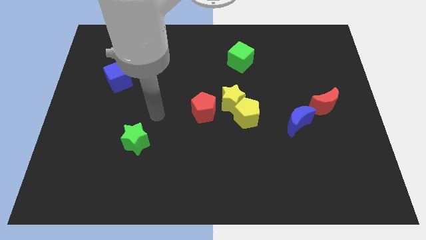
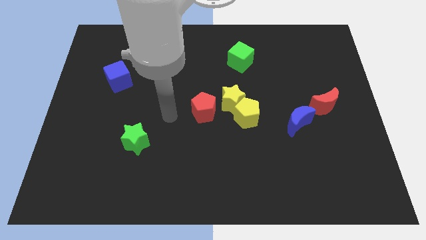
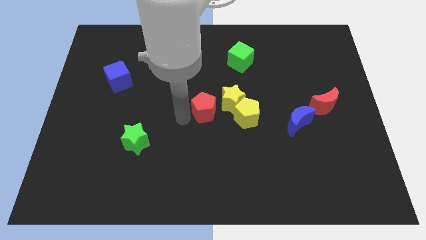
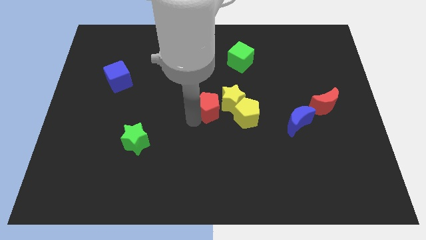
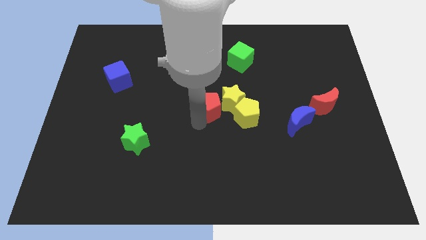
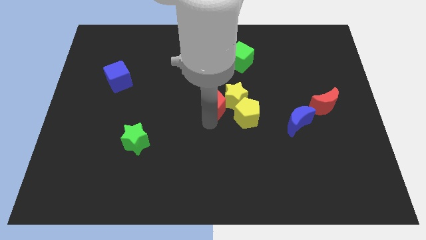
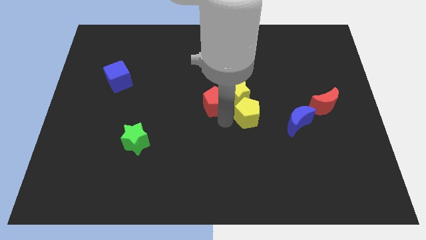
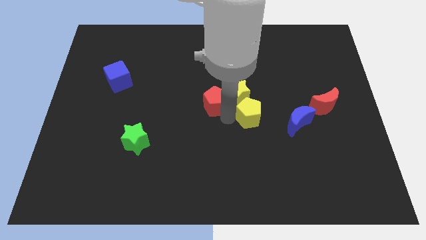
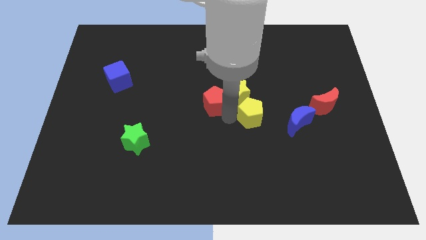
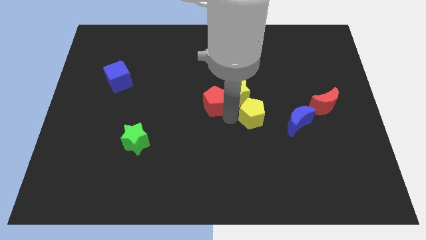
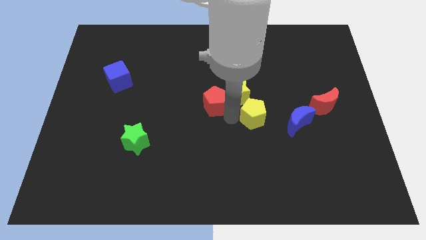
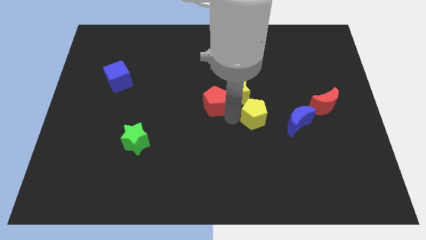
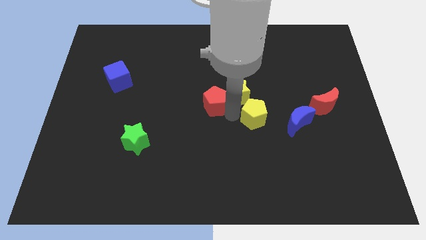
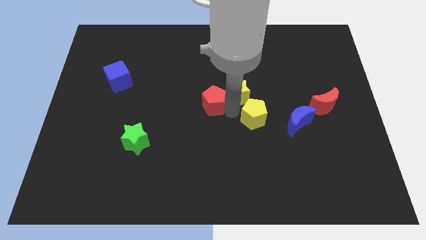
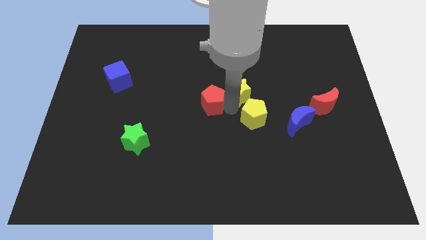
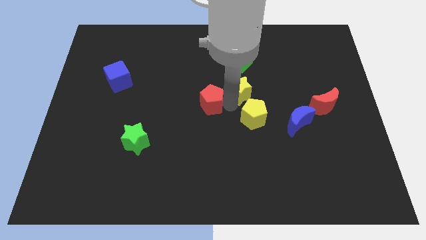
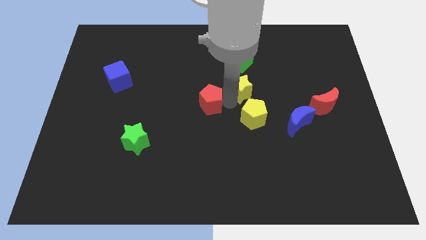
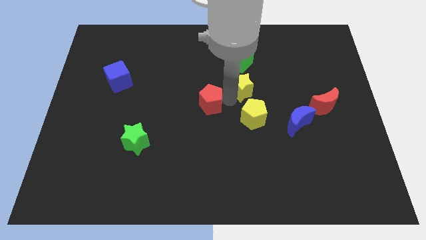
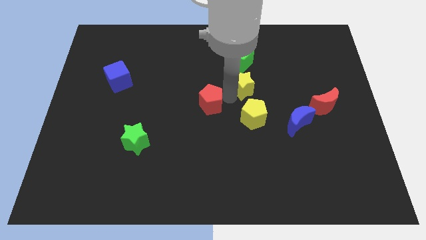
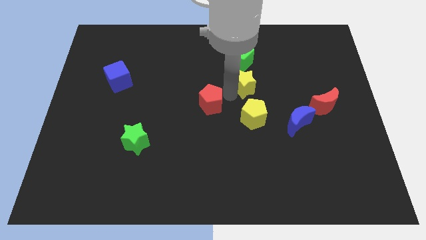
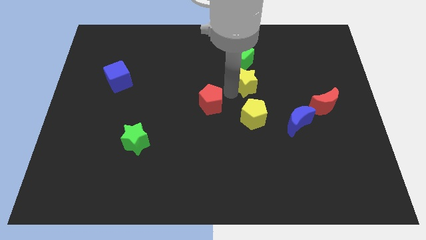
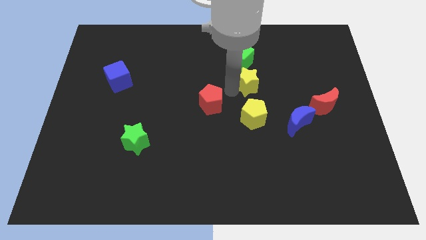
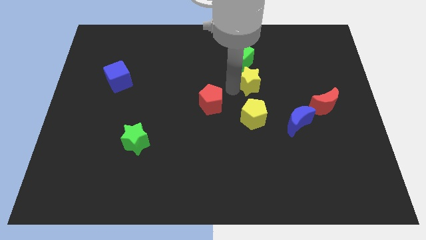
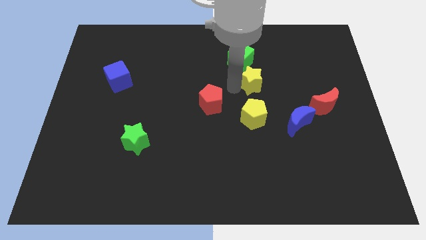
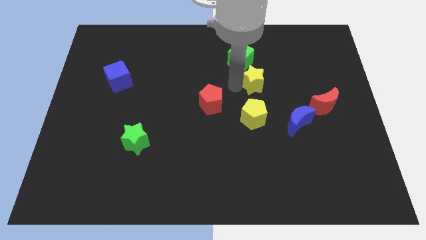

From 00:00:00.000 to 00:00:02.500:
separate the yellow star from the yellow pentagon and red pentagon

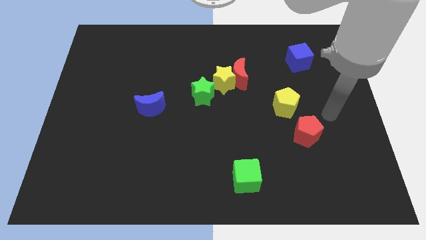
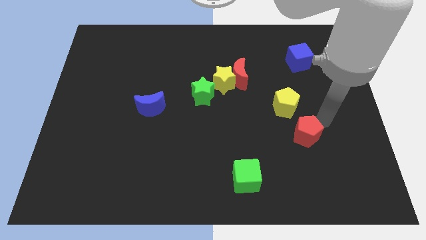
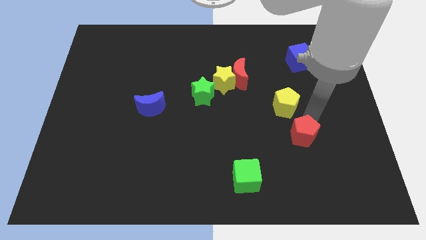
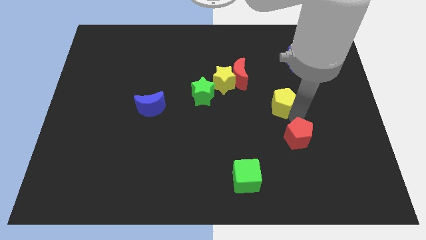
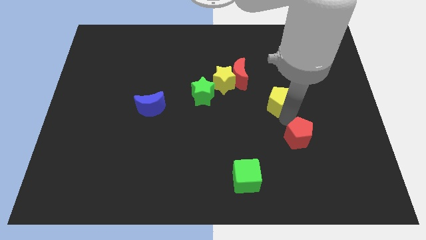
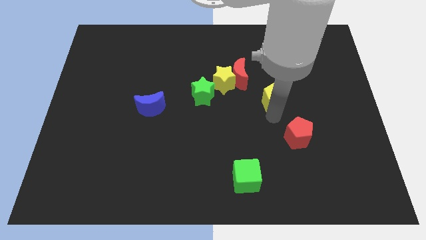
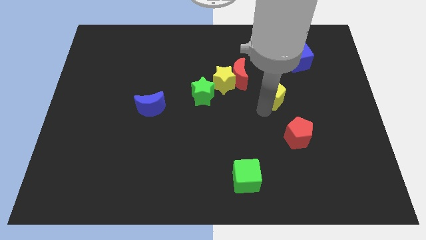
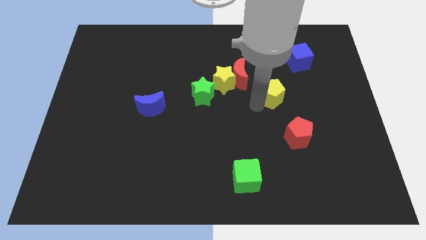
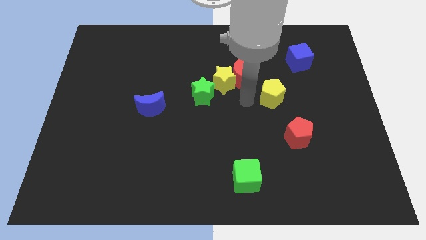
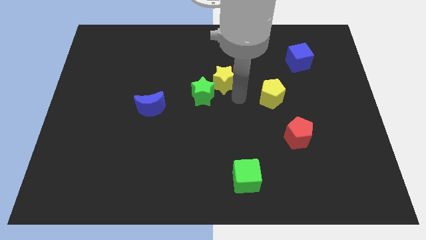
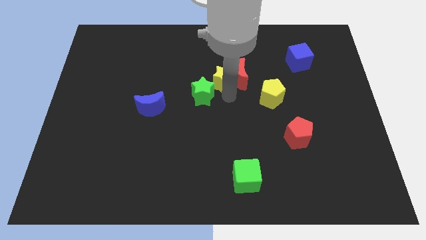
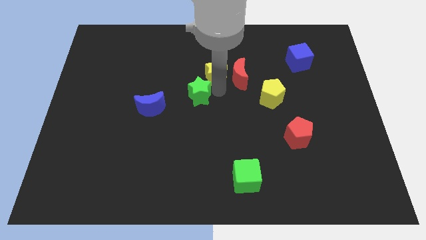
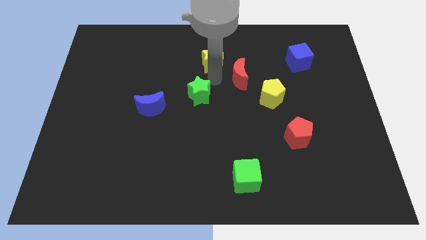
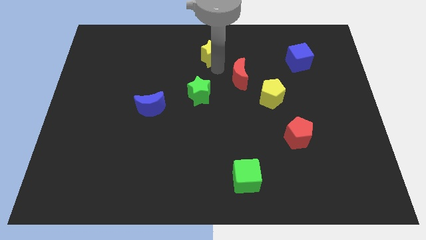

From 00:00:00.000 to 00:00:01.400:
move the red moon away from the yellow star

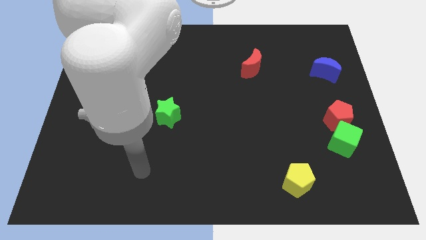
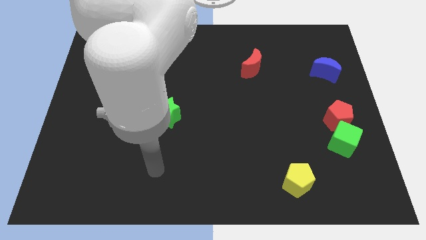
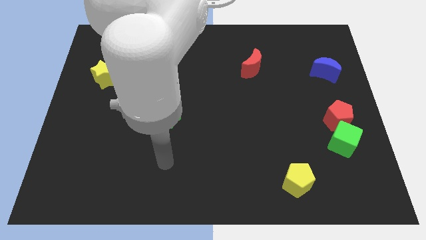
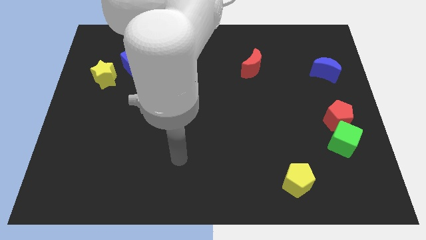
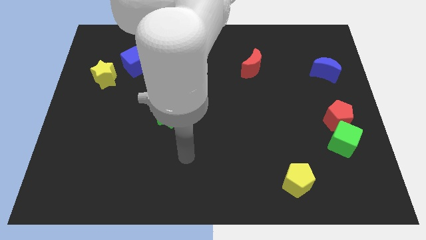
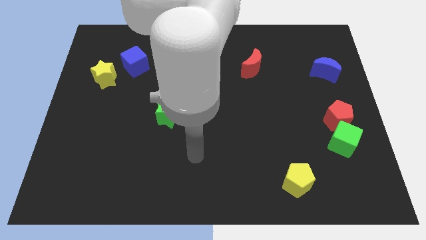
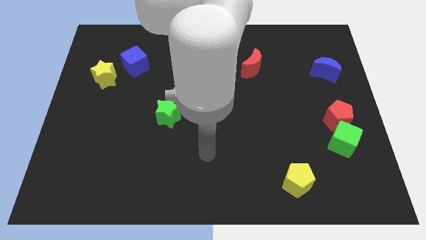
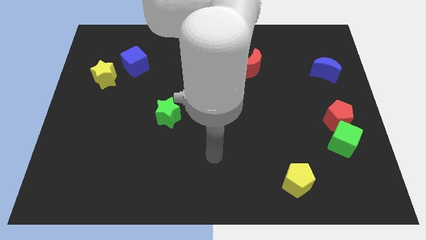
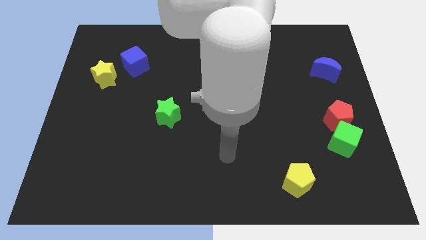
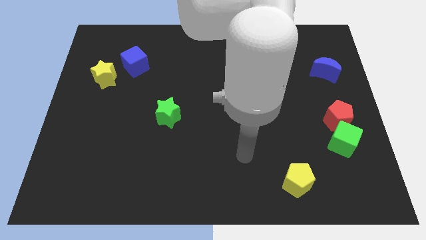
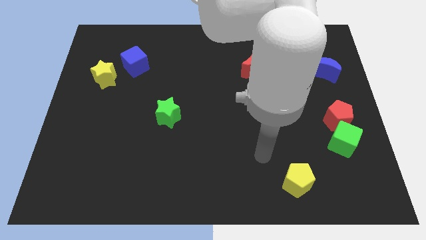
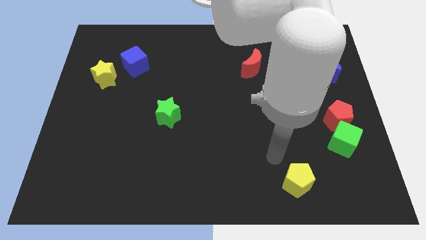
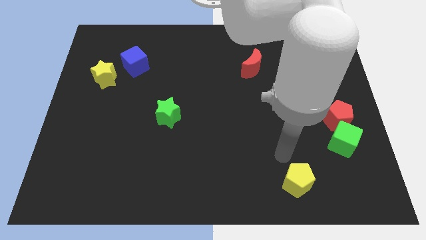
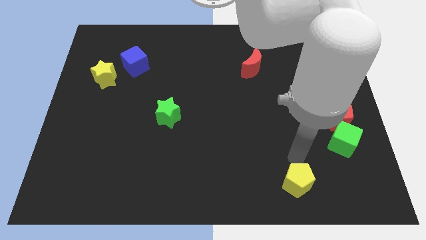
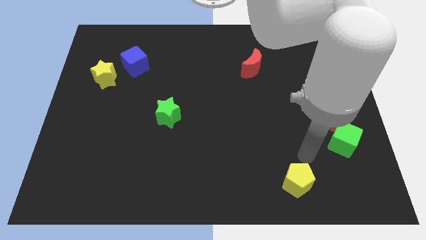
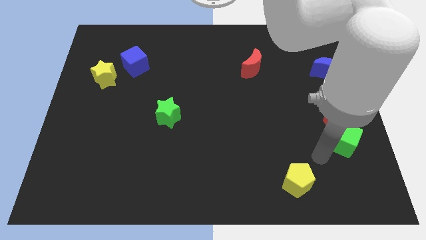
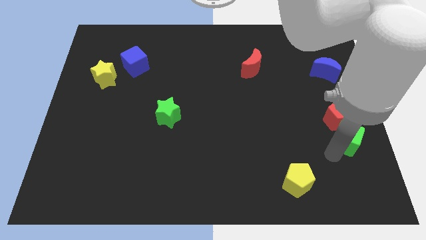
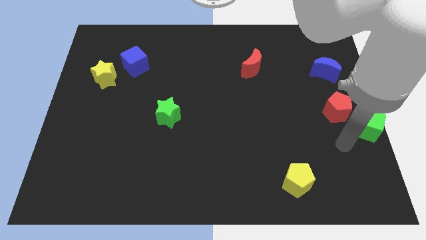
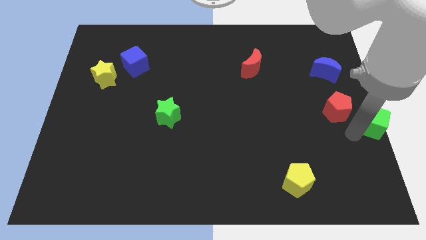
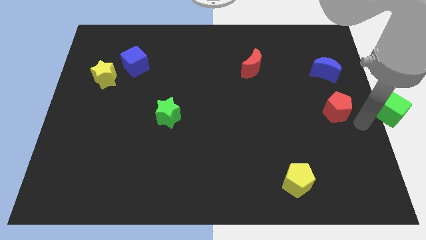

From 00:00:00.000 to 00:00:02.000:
pull the red pentagon apart from the green cube

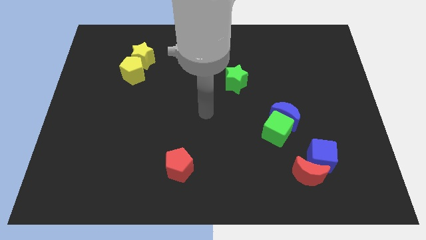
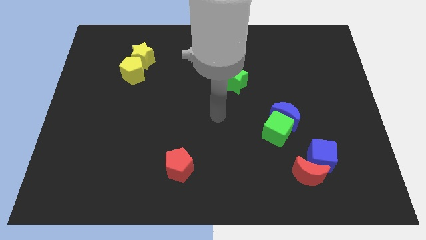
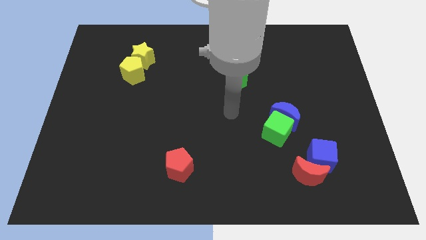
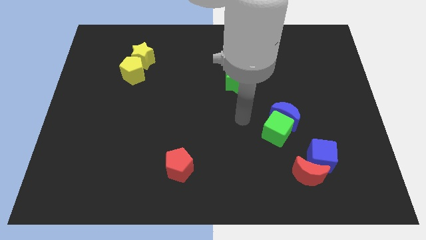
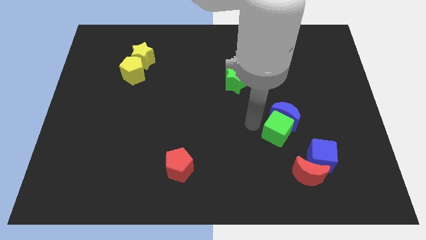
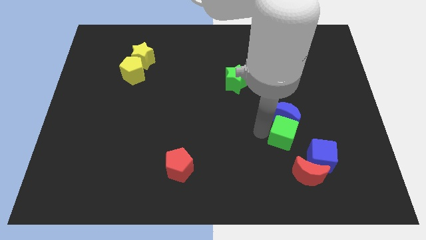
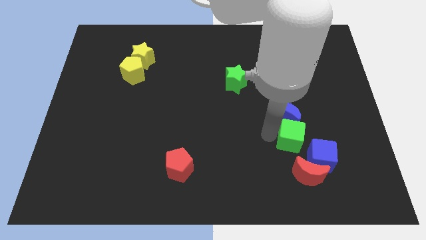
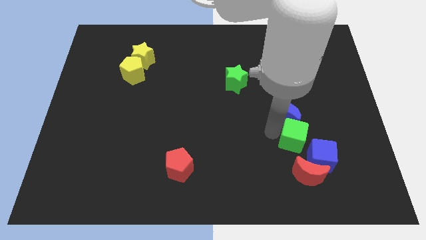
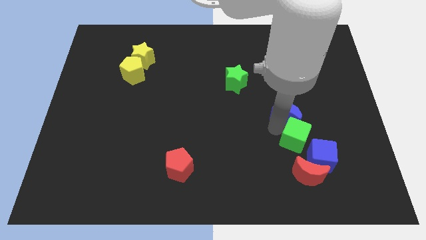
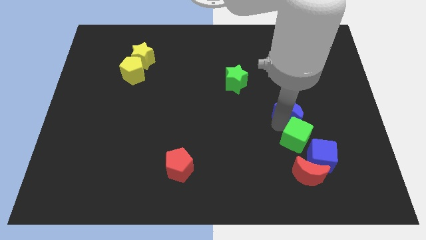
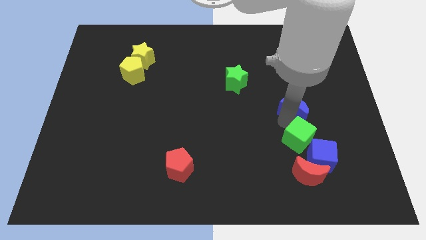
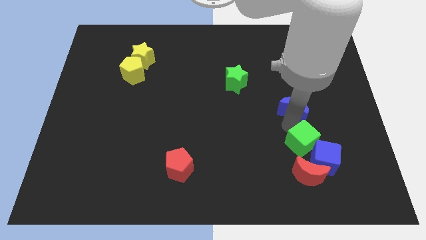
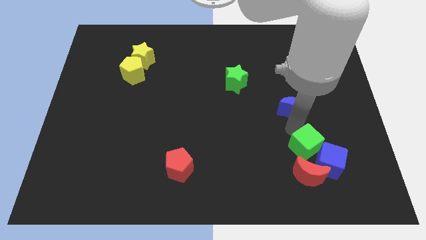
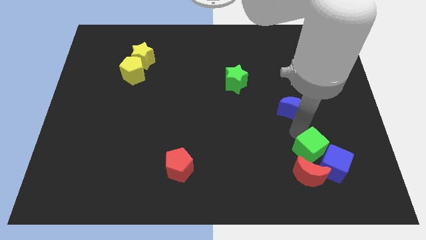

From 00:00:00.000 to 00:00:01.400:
move the blue moon away from the green cube

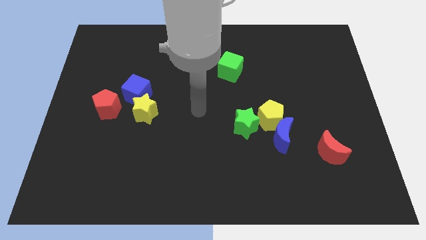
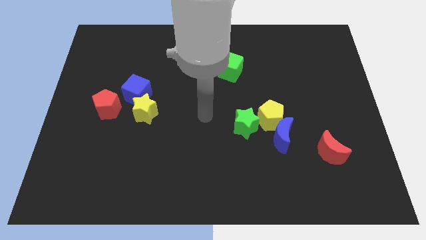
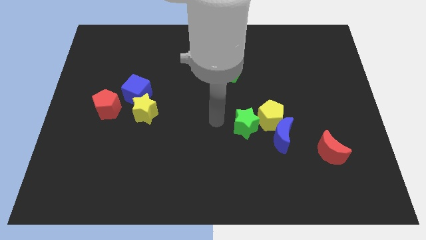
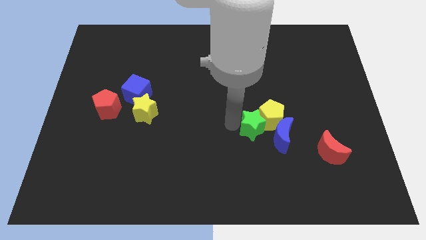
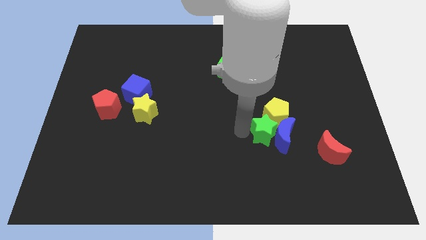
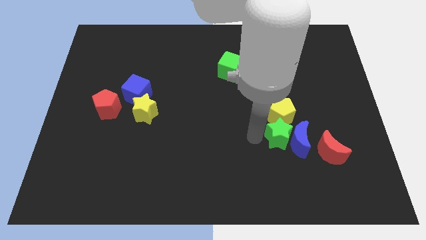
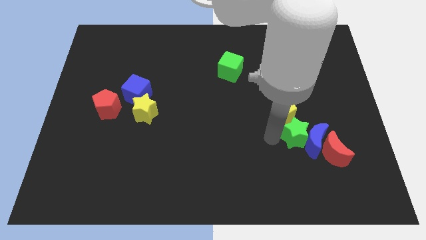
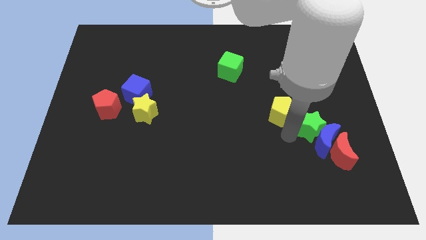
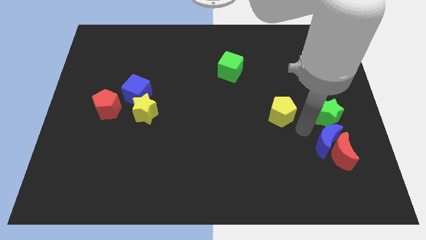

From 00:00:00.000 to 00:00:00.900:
separate the yellow pentagon from the blue moon and green star

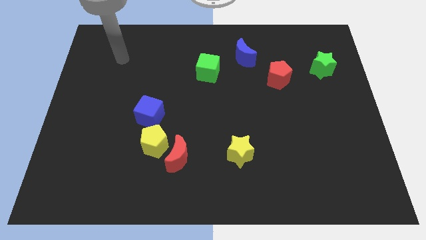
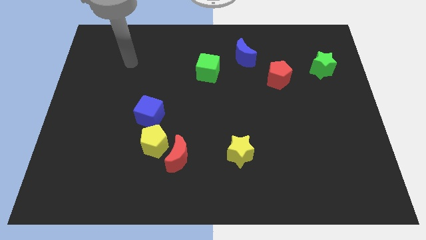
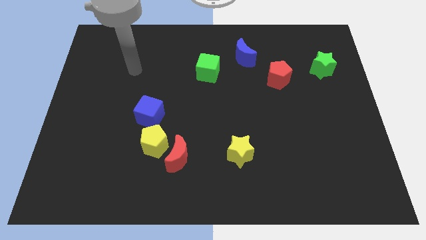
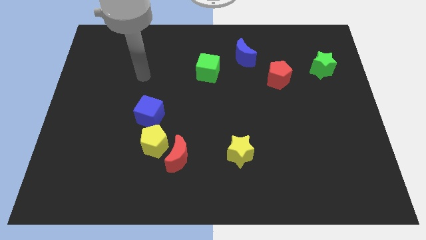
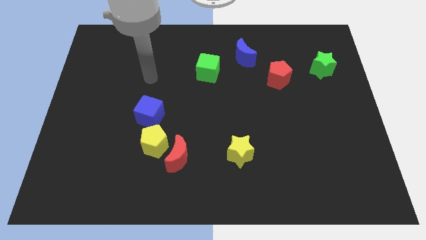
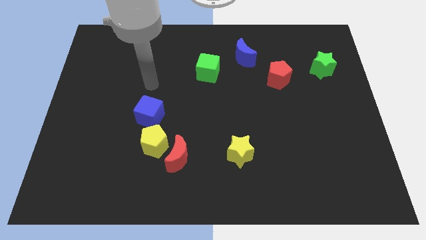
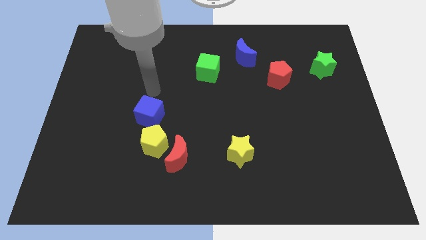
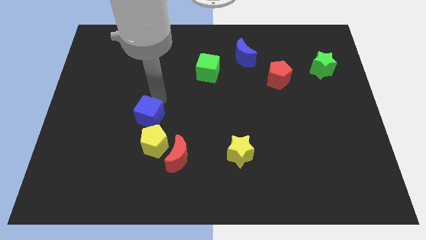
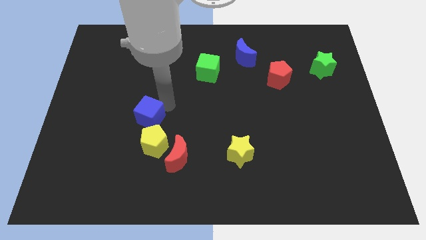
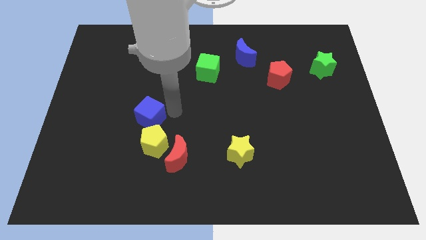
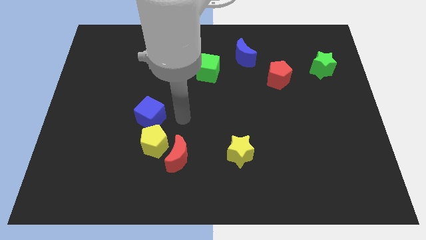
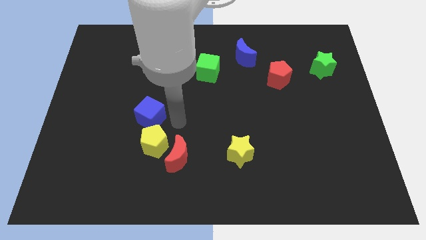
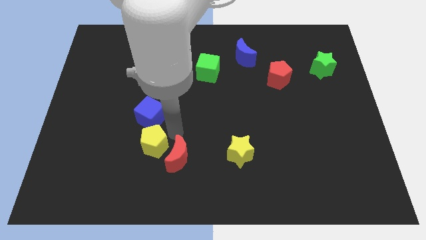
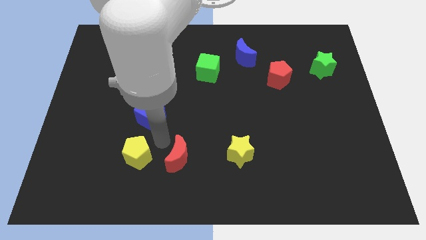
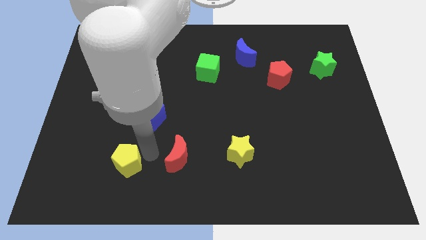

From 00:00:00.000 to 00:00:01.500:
move the red moon away from the yellow pentagon
